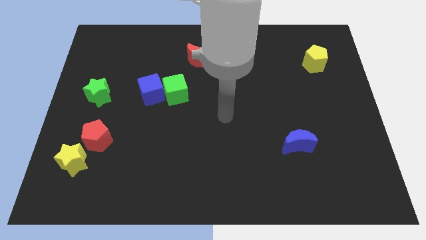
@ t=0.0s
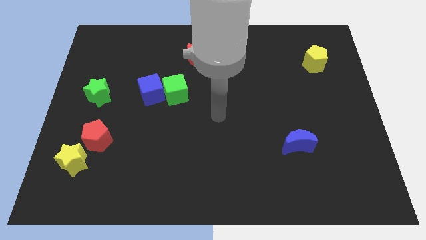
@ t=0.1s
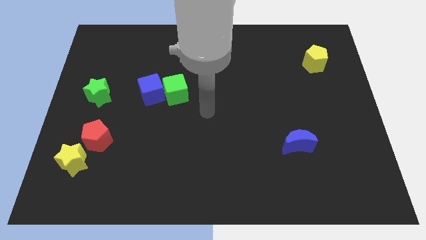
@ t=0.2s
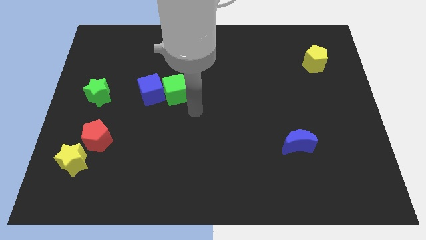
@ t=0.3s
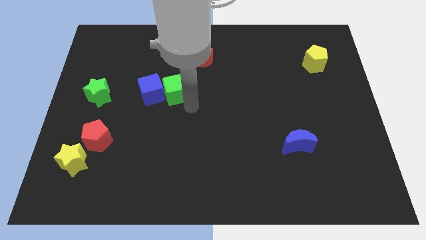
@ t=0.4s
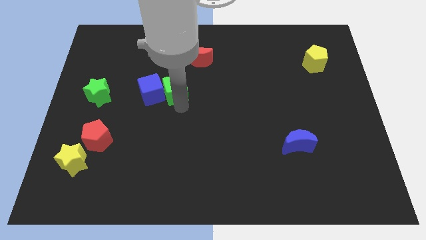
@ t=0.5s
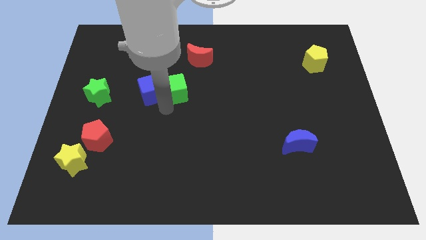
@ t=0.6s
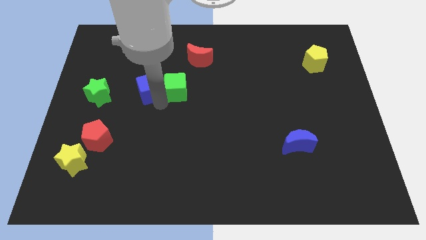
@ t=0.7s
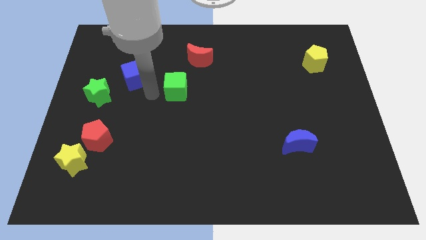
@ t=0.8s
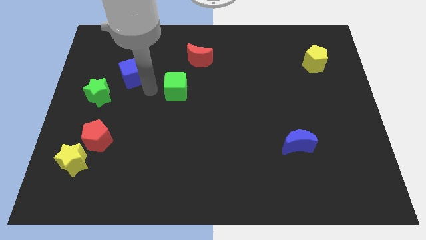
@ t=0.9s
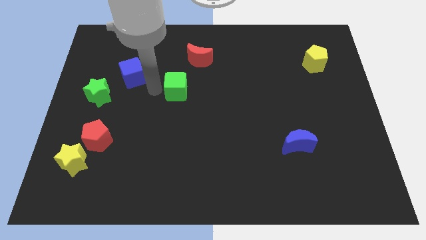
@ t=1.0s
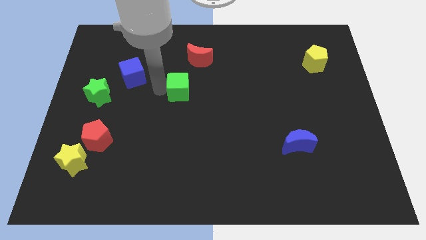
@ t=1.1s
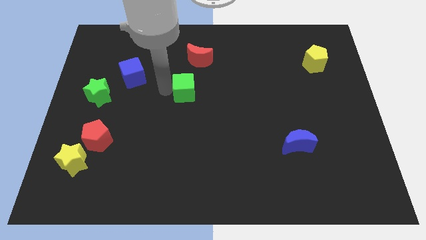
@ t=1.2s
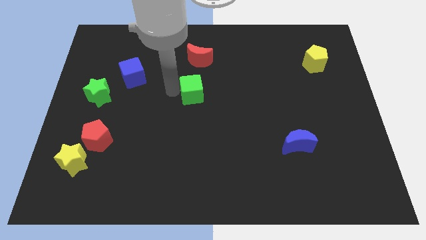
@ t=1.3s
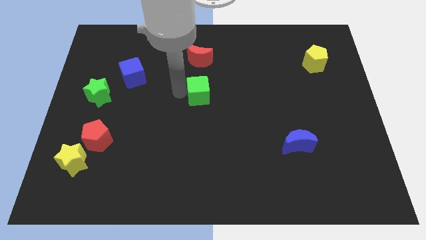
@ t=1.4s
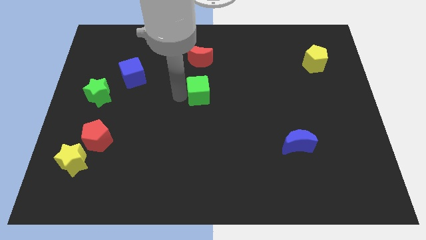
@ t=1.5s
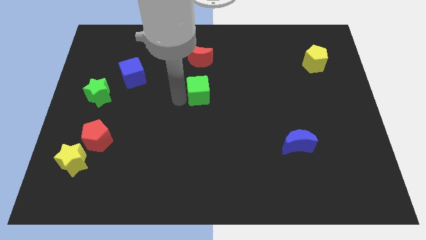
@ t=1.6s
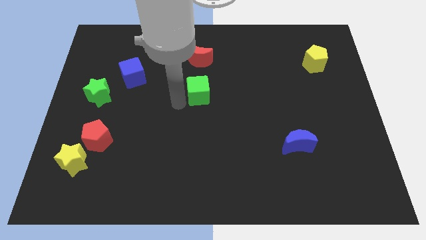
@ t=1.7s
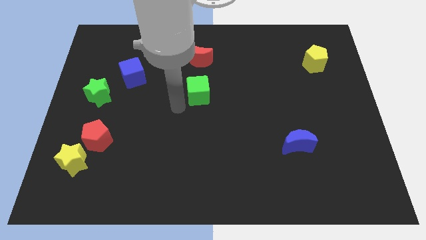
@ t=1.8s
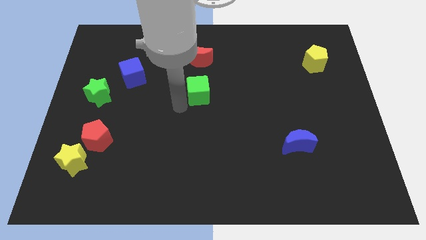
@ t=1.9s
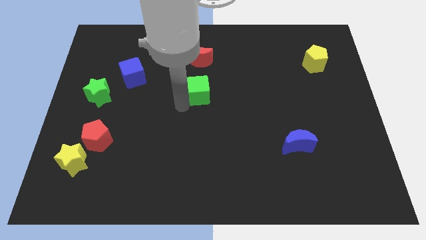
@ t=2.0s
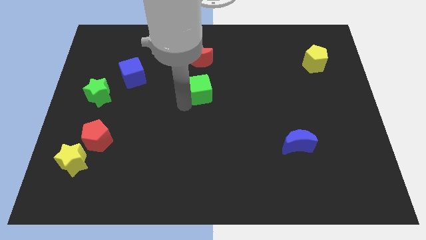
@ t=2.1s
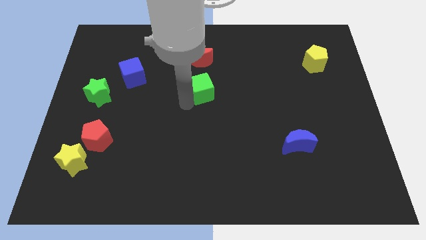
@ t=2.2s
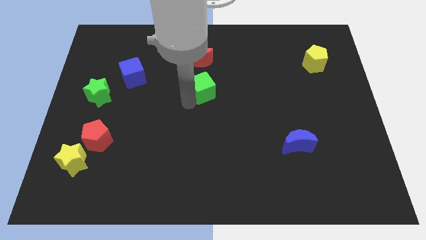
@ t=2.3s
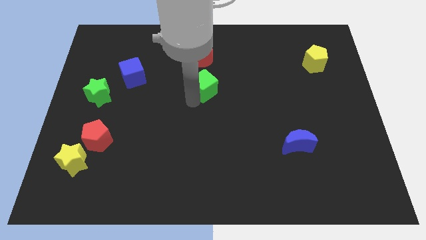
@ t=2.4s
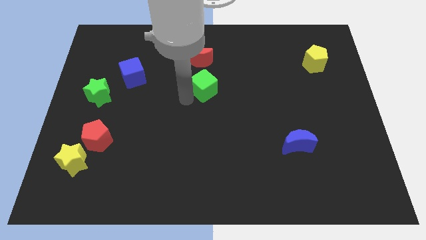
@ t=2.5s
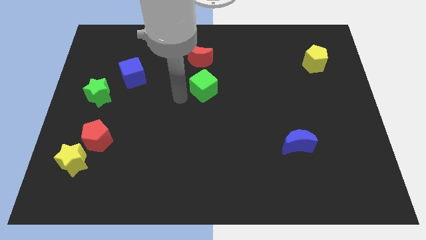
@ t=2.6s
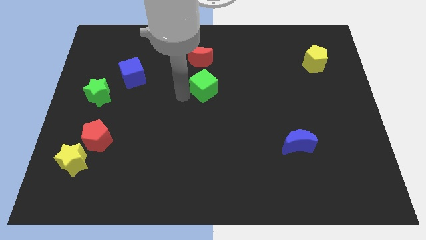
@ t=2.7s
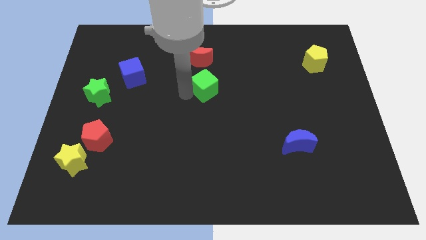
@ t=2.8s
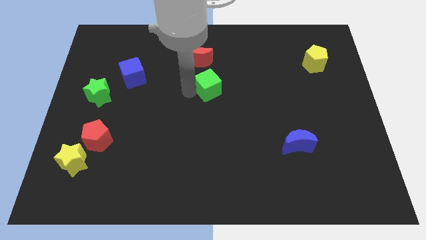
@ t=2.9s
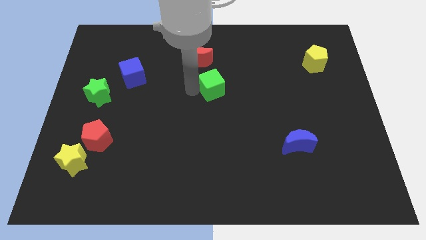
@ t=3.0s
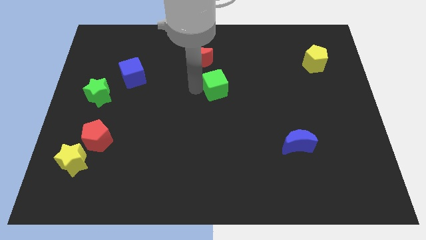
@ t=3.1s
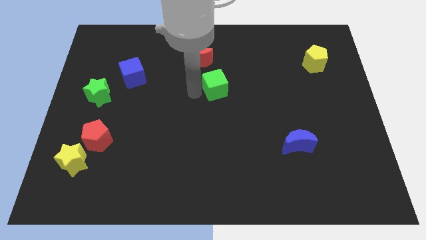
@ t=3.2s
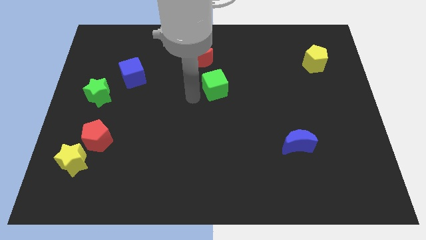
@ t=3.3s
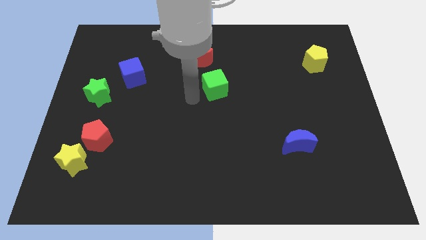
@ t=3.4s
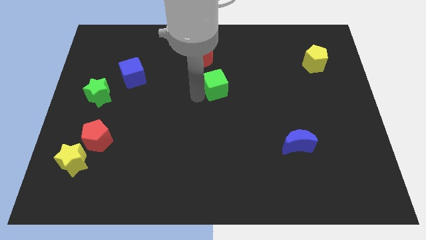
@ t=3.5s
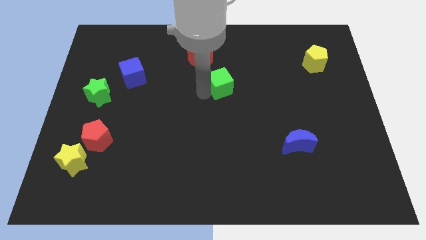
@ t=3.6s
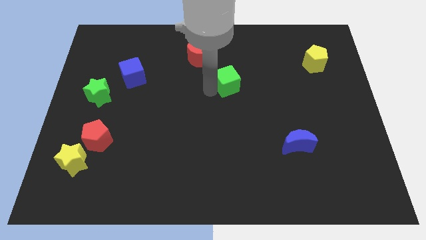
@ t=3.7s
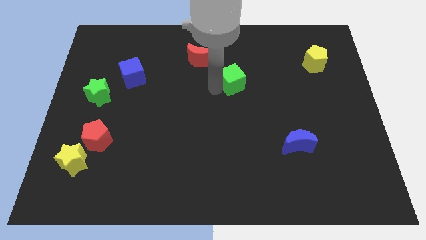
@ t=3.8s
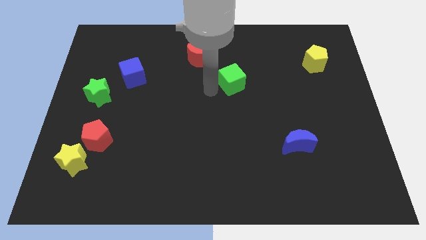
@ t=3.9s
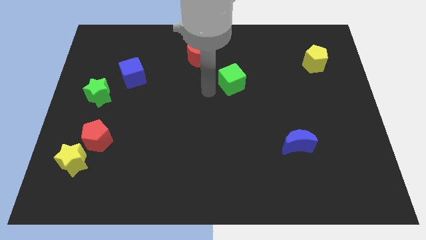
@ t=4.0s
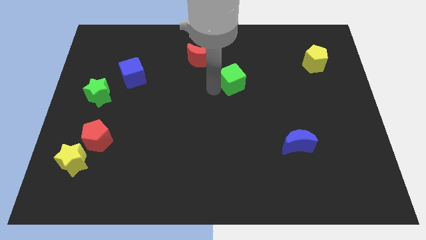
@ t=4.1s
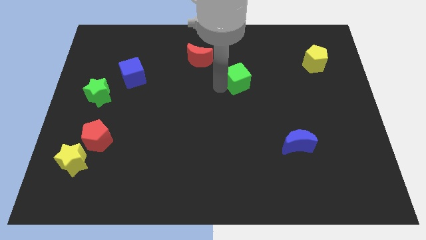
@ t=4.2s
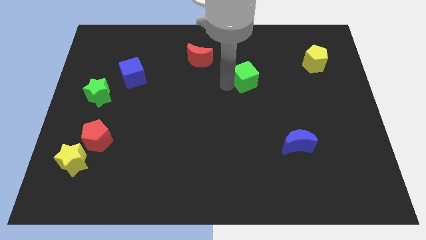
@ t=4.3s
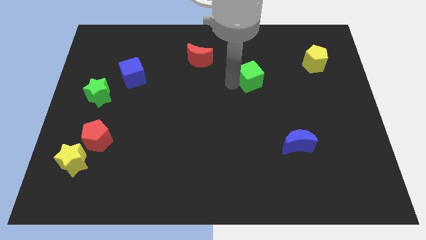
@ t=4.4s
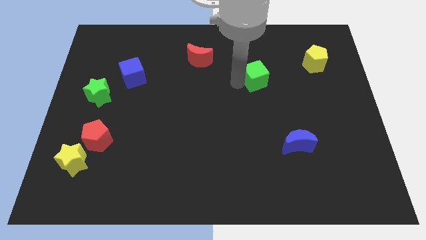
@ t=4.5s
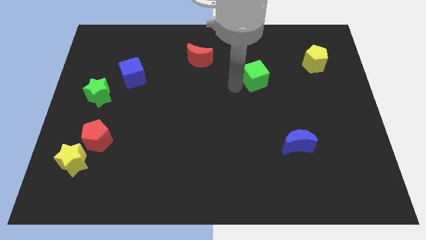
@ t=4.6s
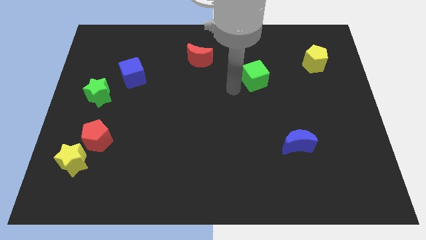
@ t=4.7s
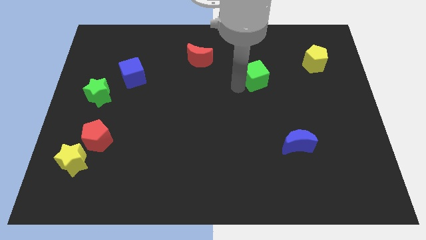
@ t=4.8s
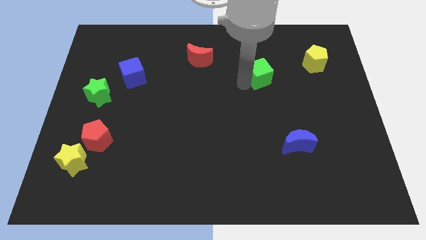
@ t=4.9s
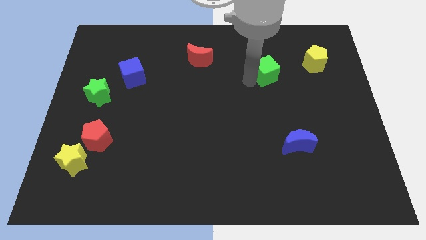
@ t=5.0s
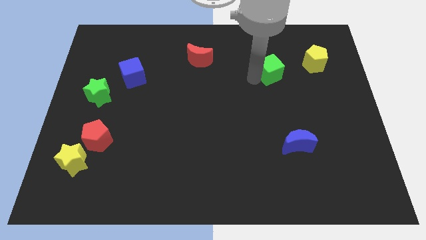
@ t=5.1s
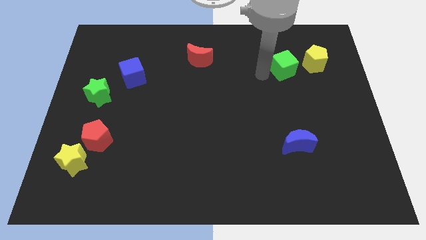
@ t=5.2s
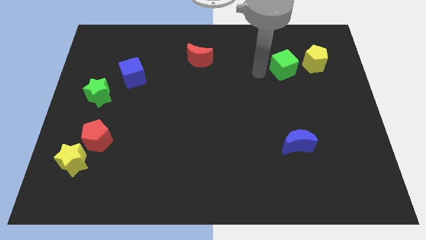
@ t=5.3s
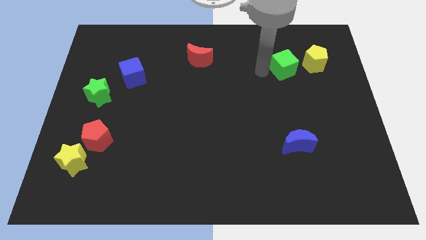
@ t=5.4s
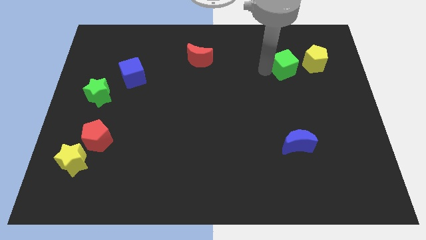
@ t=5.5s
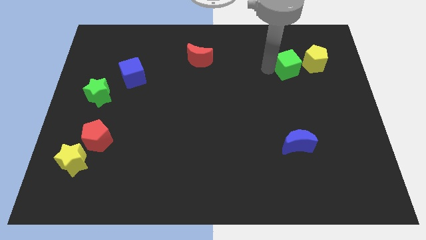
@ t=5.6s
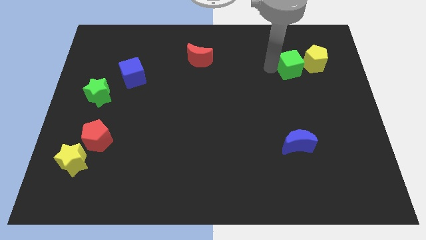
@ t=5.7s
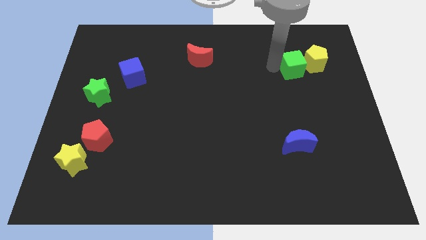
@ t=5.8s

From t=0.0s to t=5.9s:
push the green cube to the yellow pentagon

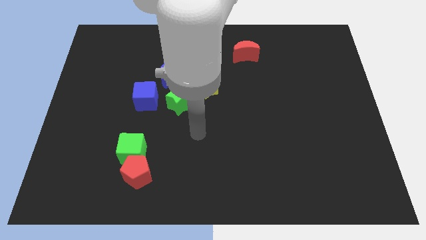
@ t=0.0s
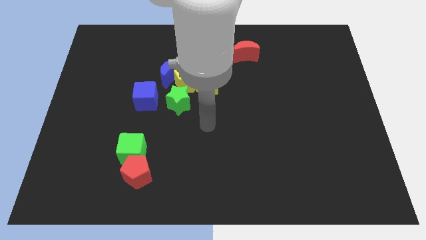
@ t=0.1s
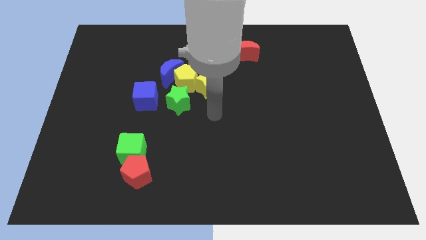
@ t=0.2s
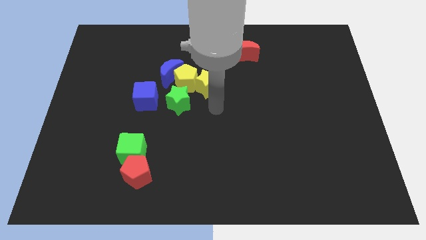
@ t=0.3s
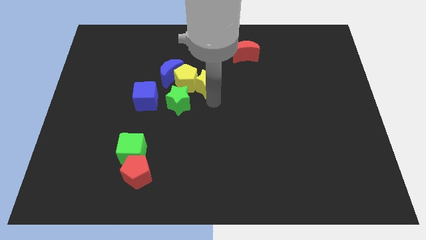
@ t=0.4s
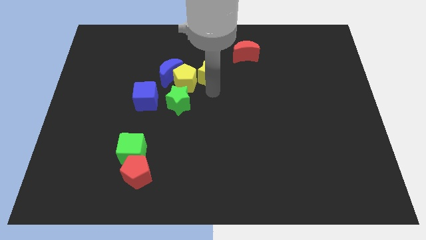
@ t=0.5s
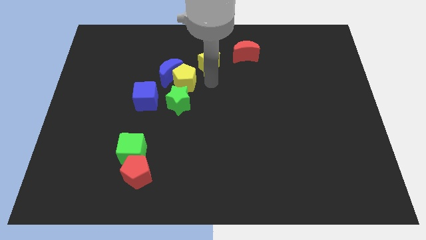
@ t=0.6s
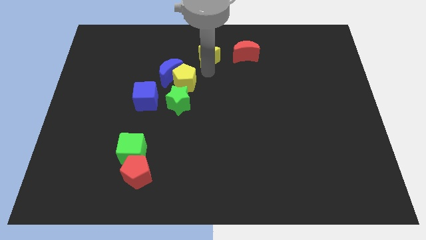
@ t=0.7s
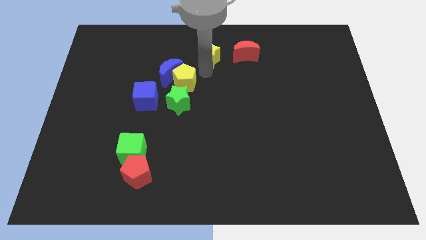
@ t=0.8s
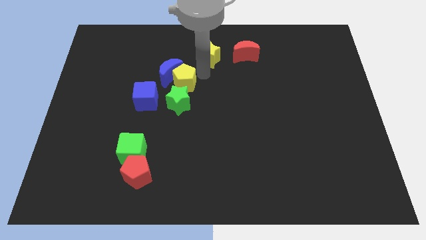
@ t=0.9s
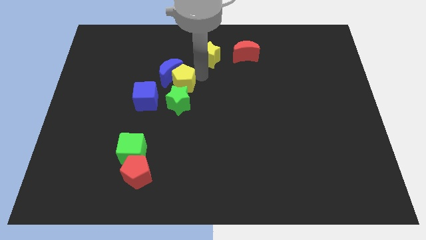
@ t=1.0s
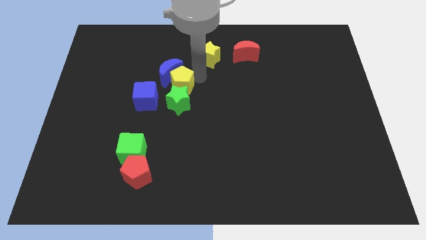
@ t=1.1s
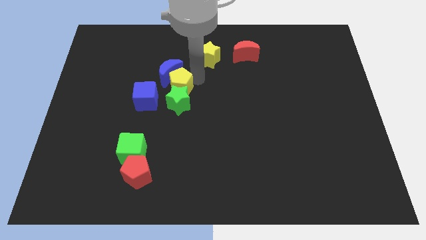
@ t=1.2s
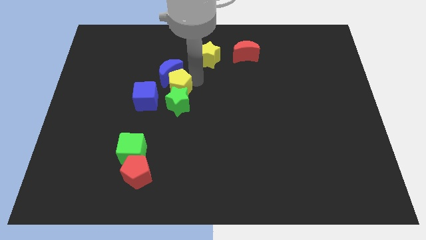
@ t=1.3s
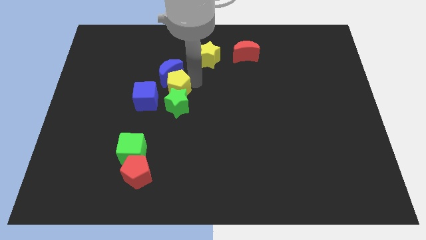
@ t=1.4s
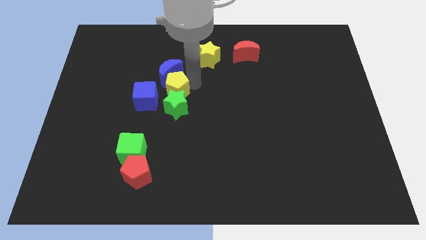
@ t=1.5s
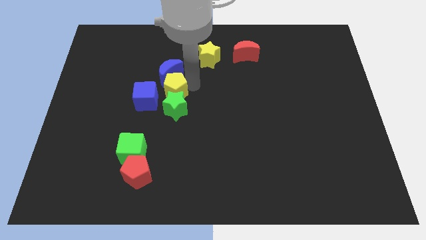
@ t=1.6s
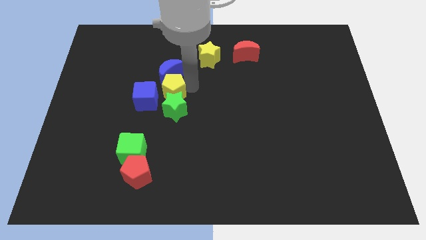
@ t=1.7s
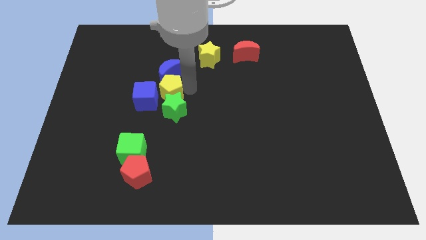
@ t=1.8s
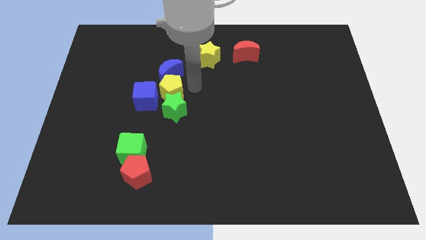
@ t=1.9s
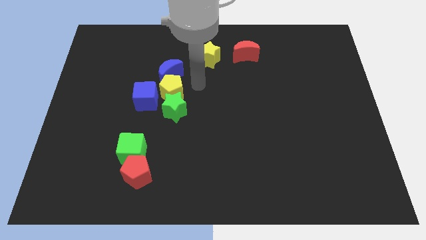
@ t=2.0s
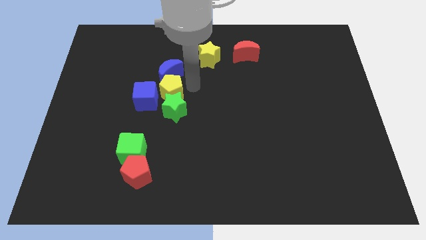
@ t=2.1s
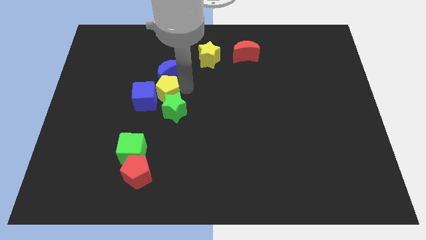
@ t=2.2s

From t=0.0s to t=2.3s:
push the yellow pentagon towards the blue cube
